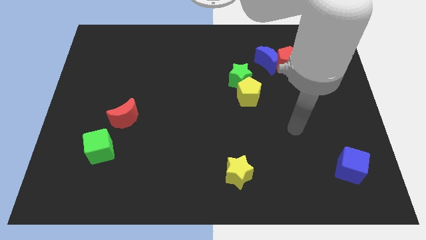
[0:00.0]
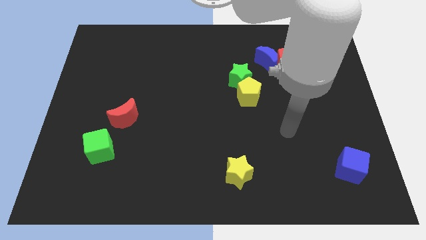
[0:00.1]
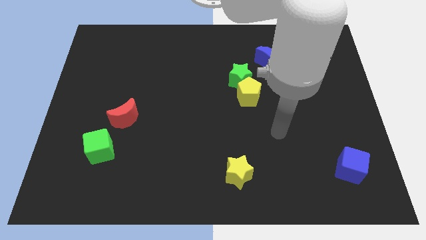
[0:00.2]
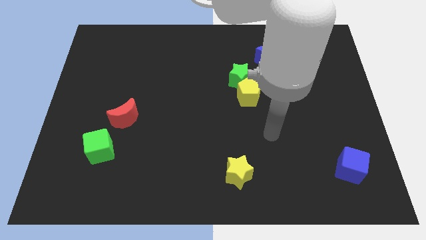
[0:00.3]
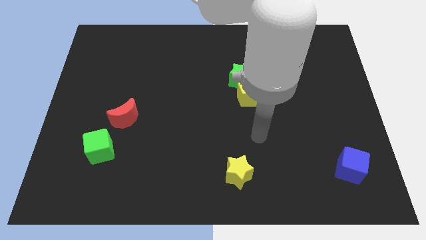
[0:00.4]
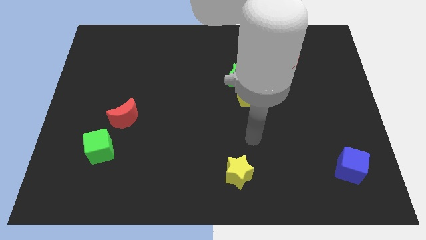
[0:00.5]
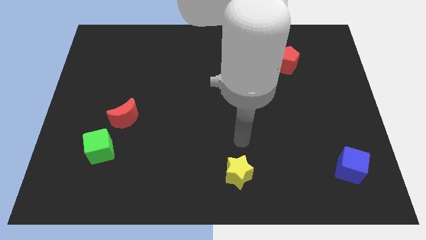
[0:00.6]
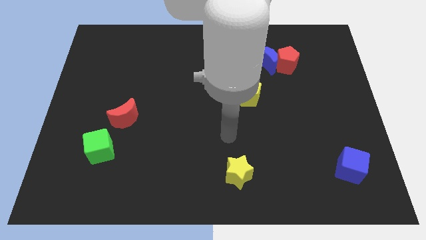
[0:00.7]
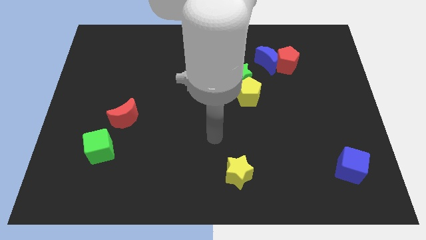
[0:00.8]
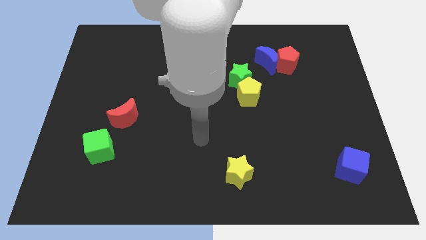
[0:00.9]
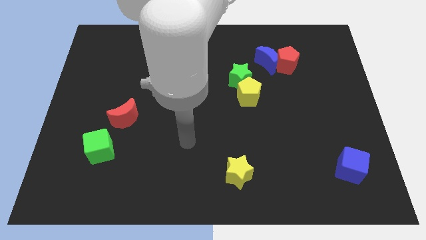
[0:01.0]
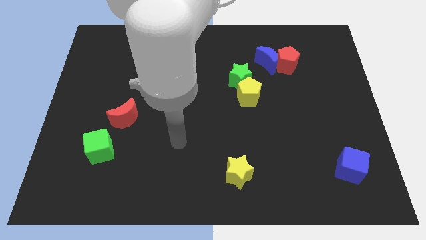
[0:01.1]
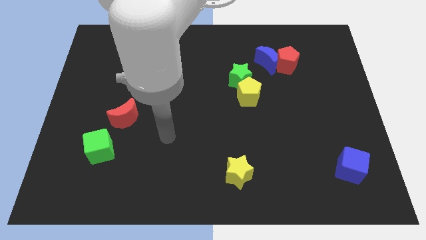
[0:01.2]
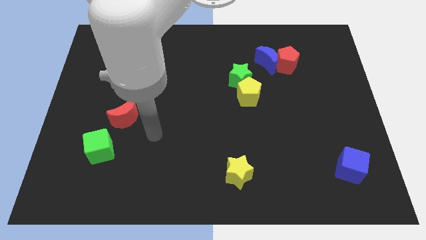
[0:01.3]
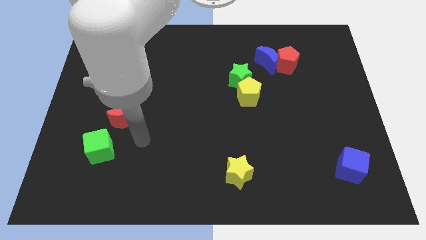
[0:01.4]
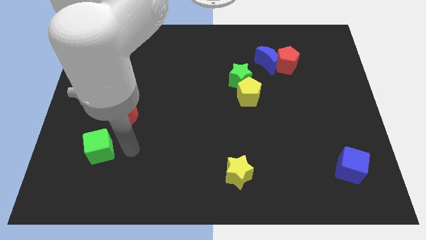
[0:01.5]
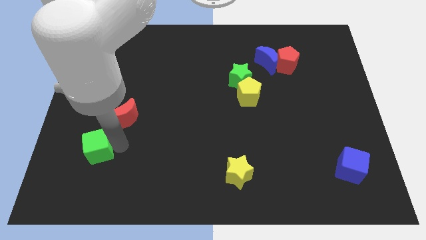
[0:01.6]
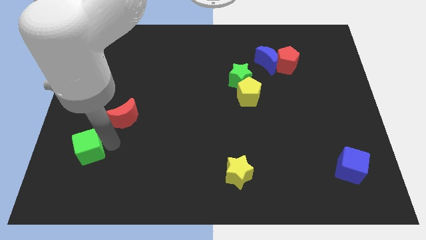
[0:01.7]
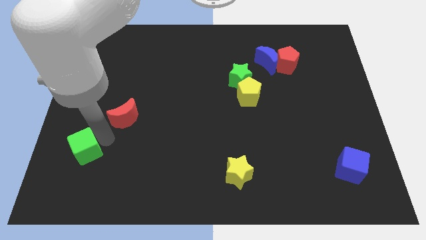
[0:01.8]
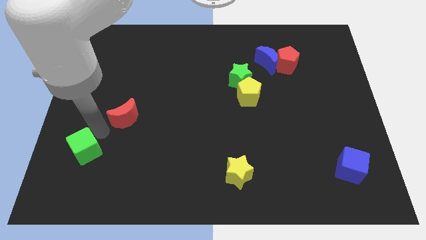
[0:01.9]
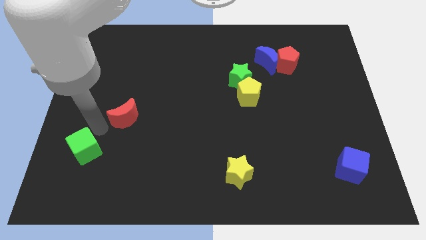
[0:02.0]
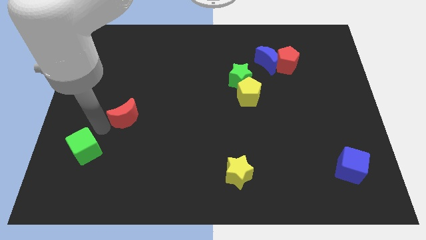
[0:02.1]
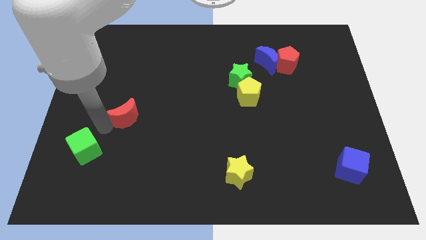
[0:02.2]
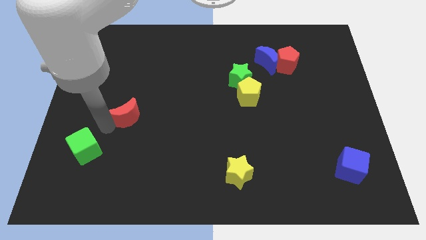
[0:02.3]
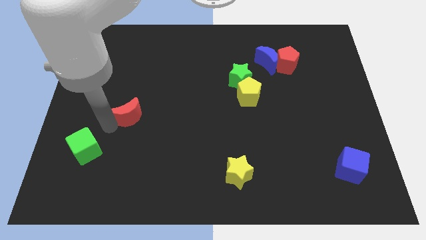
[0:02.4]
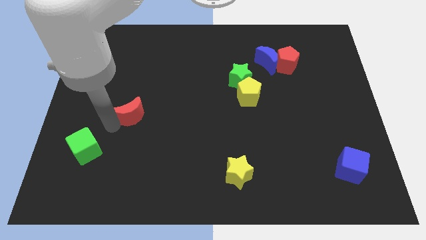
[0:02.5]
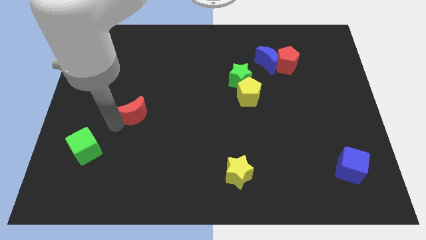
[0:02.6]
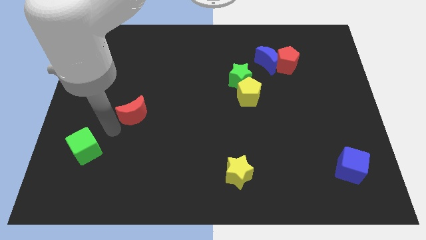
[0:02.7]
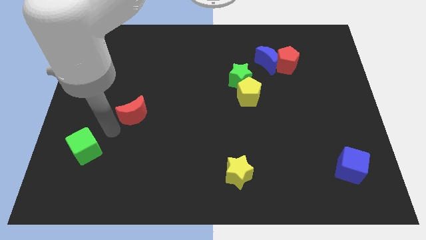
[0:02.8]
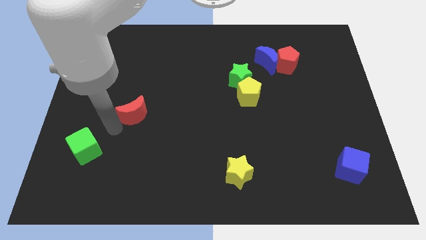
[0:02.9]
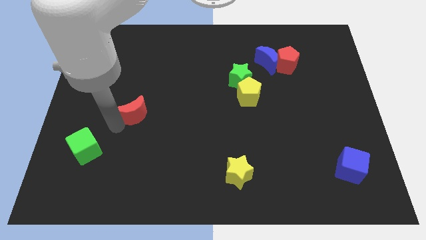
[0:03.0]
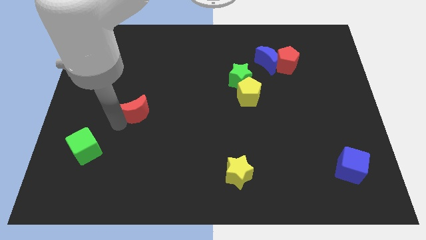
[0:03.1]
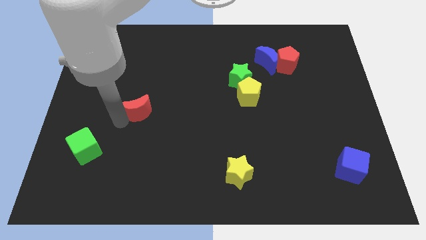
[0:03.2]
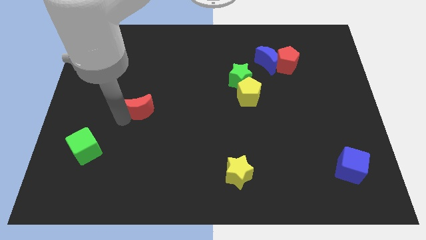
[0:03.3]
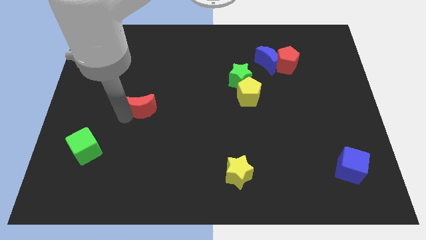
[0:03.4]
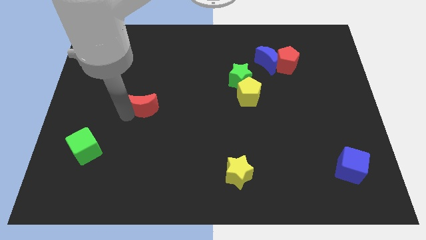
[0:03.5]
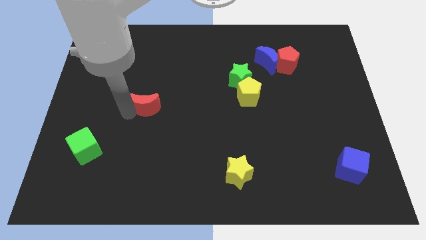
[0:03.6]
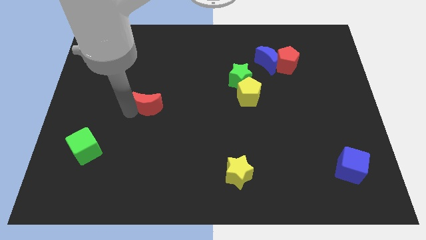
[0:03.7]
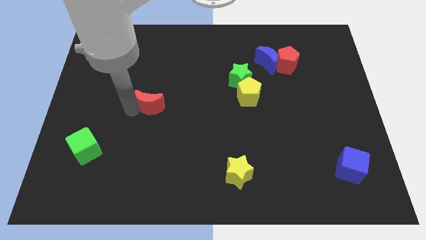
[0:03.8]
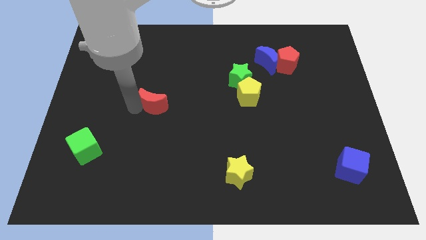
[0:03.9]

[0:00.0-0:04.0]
move the red moon somewhat upwards and to the right diagonally

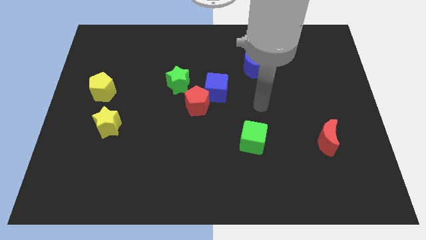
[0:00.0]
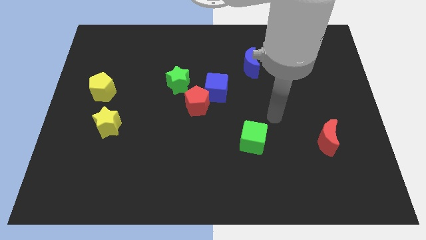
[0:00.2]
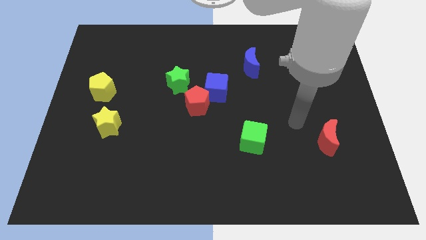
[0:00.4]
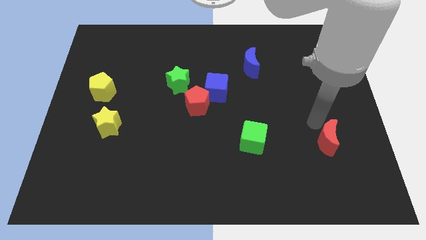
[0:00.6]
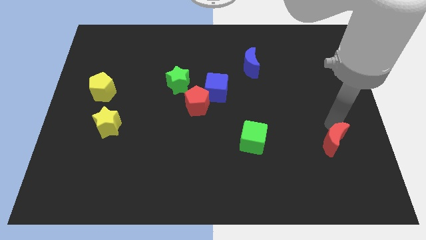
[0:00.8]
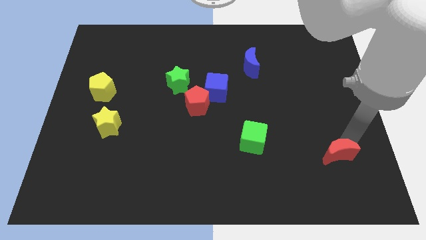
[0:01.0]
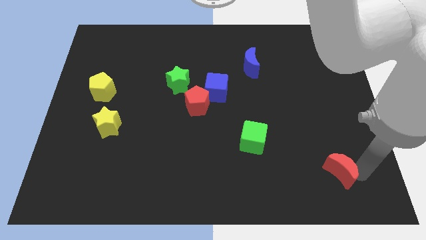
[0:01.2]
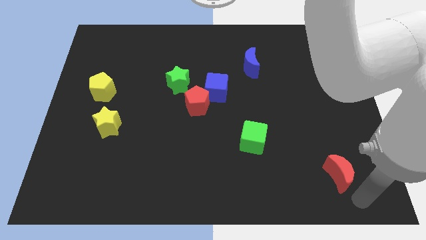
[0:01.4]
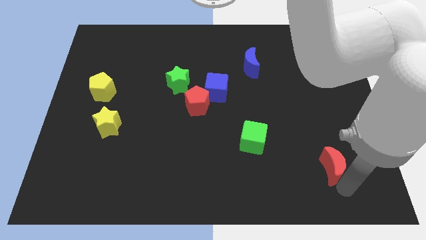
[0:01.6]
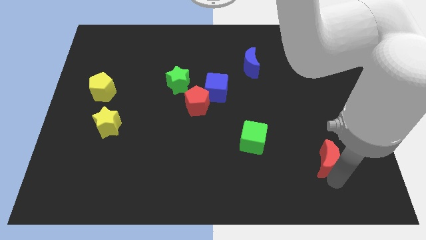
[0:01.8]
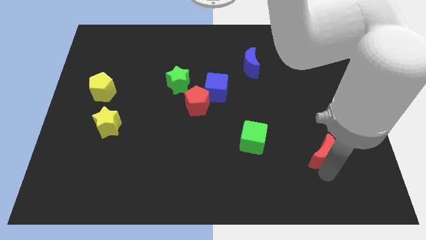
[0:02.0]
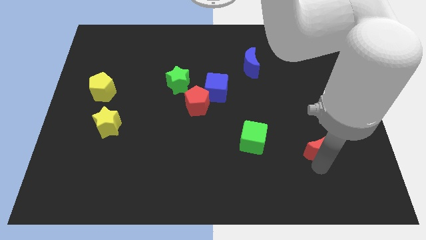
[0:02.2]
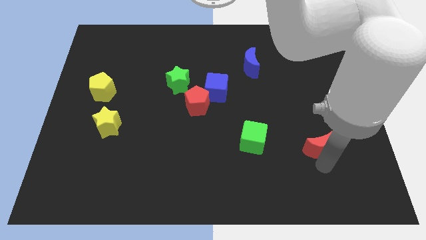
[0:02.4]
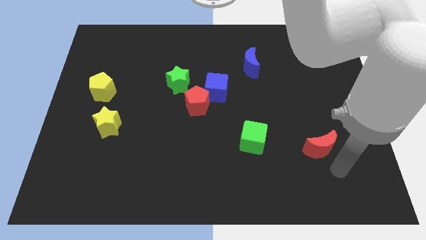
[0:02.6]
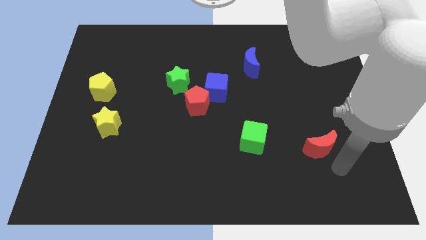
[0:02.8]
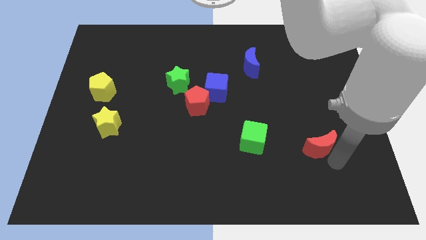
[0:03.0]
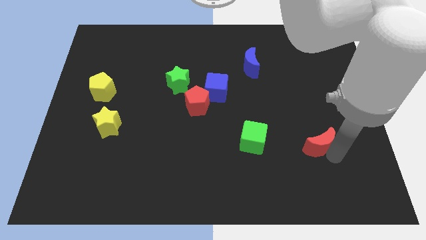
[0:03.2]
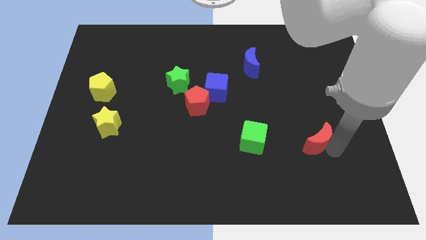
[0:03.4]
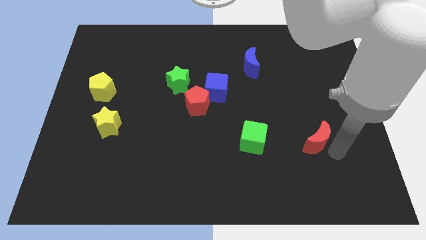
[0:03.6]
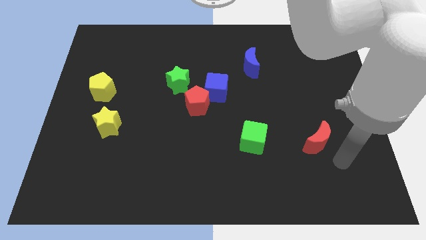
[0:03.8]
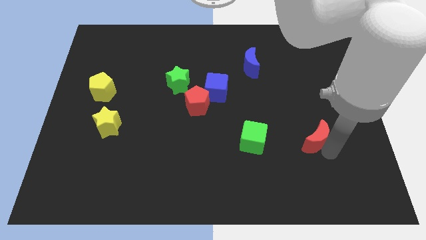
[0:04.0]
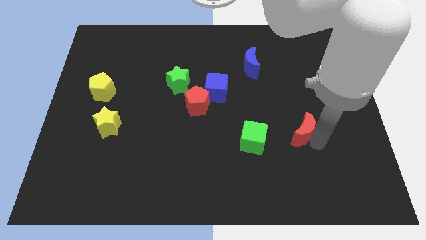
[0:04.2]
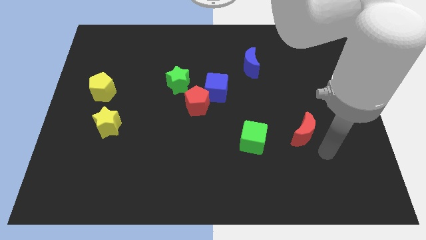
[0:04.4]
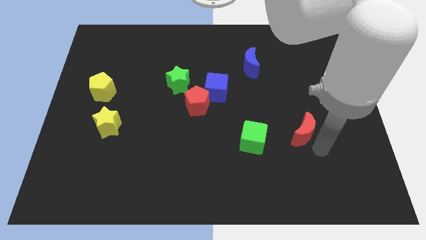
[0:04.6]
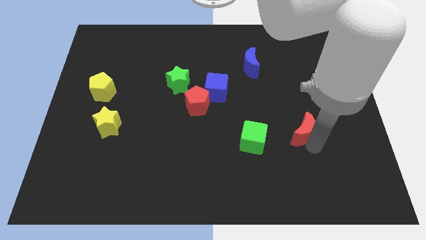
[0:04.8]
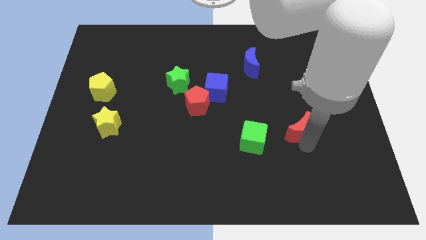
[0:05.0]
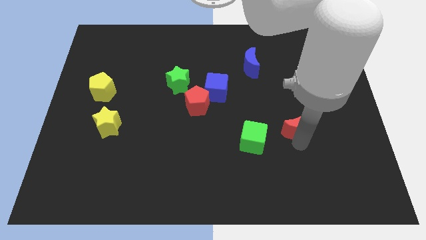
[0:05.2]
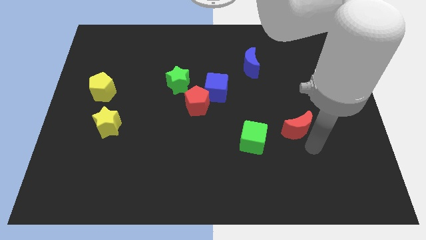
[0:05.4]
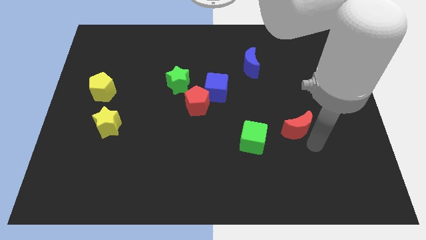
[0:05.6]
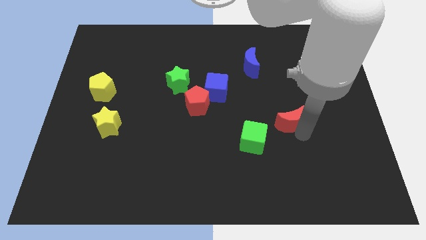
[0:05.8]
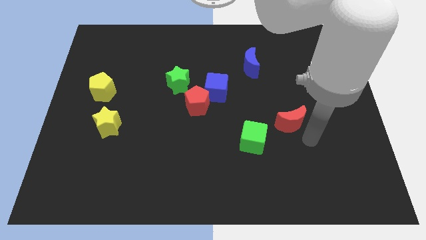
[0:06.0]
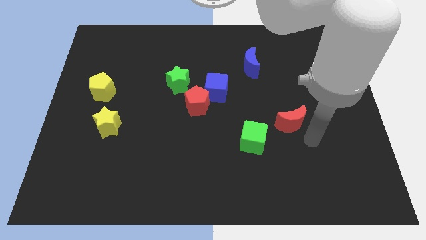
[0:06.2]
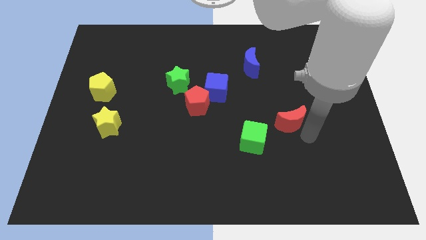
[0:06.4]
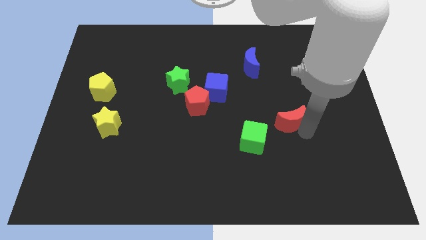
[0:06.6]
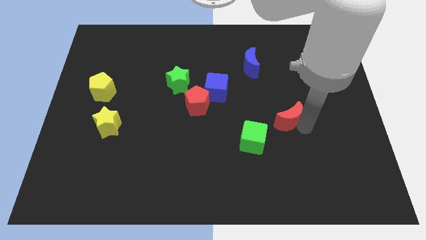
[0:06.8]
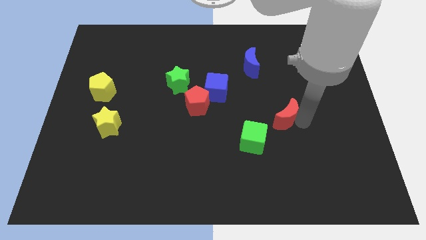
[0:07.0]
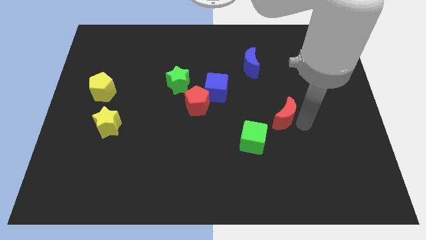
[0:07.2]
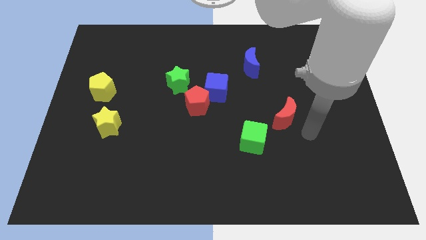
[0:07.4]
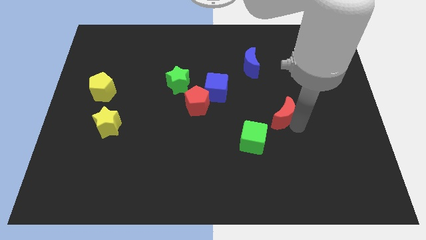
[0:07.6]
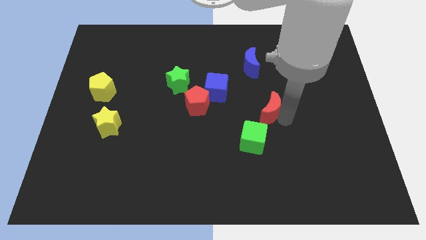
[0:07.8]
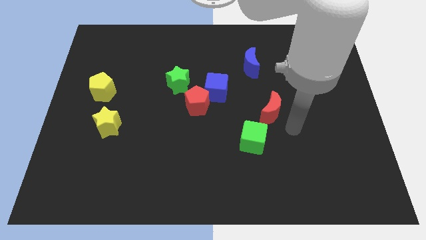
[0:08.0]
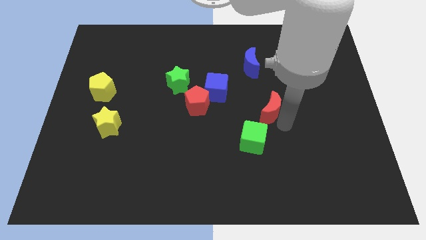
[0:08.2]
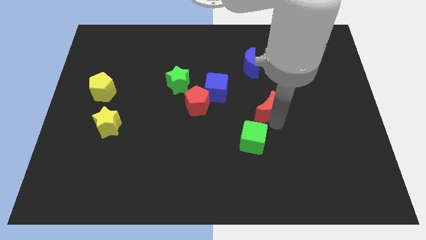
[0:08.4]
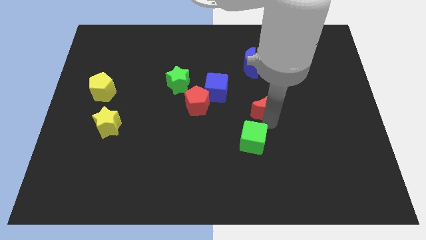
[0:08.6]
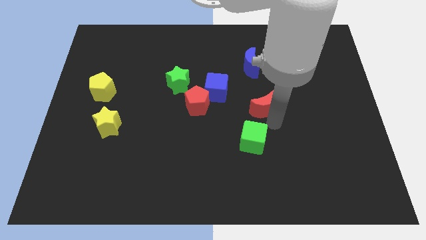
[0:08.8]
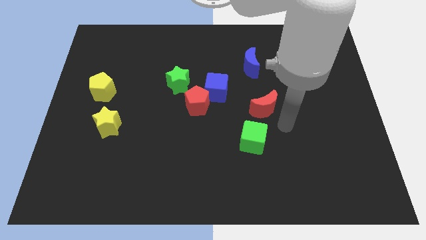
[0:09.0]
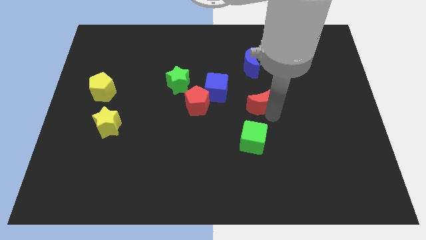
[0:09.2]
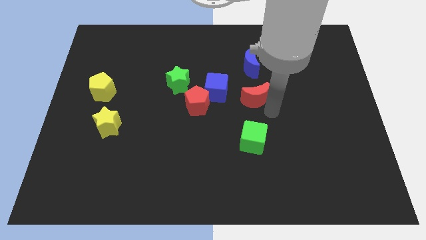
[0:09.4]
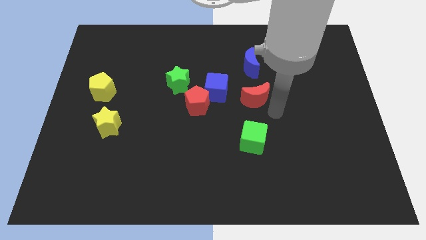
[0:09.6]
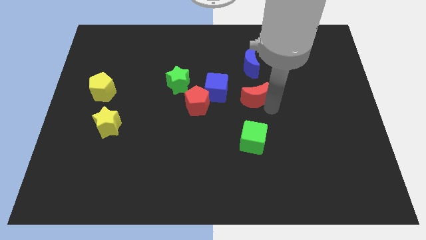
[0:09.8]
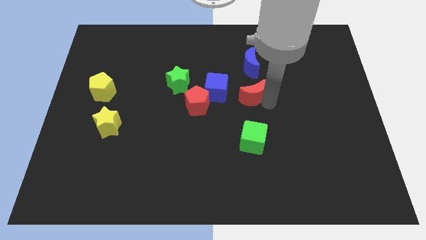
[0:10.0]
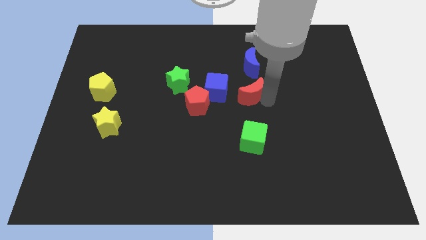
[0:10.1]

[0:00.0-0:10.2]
move the red moon up and then to the left
